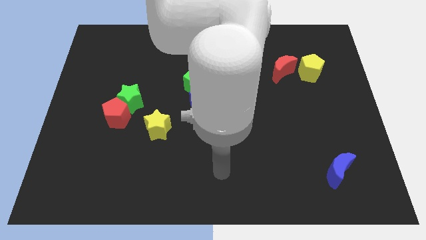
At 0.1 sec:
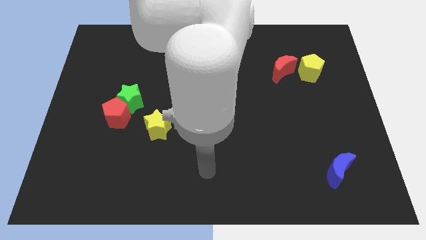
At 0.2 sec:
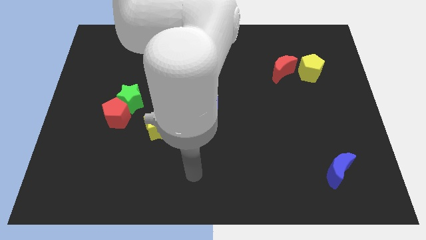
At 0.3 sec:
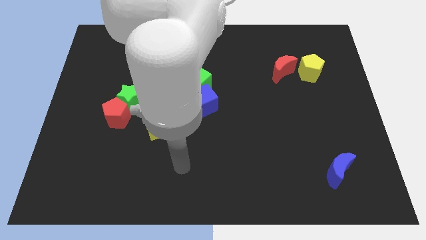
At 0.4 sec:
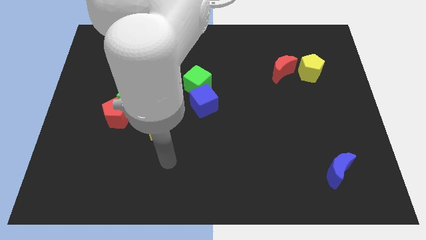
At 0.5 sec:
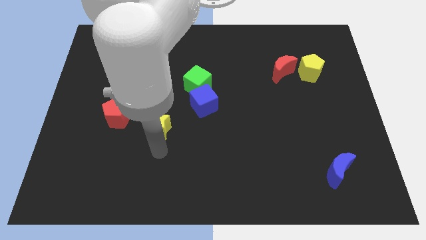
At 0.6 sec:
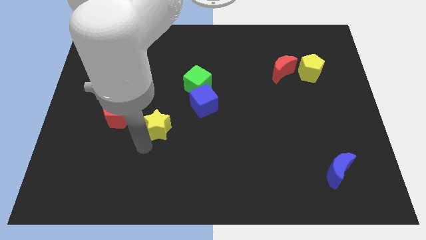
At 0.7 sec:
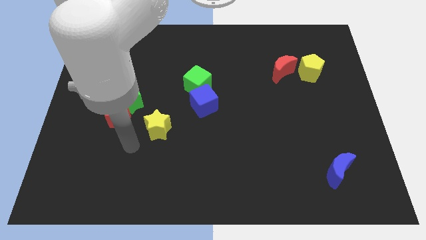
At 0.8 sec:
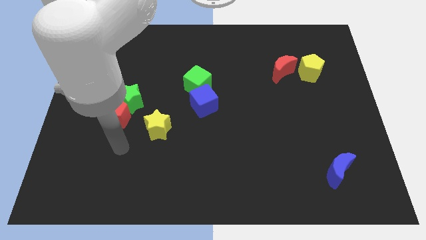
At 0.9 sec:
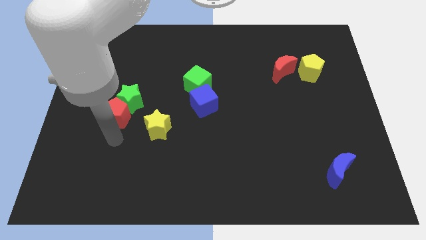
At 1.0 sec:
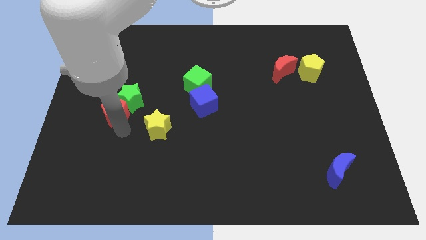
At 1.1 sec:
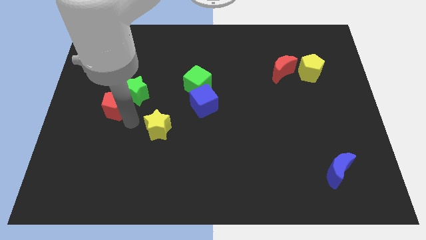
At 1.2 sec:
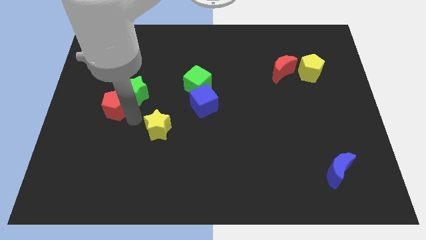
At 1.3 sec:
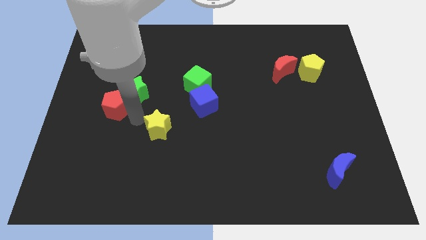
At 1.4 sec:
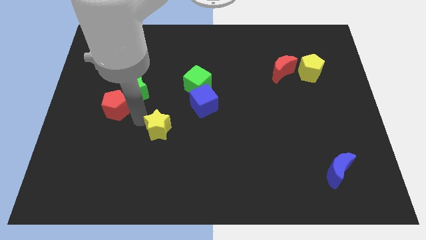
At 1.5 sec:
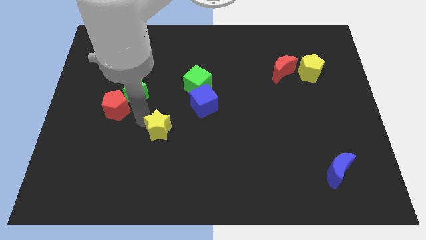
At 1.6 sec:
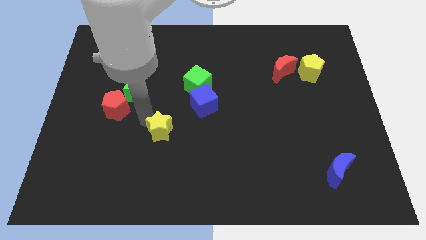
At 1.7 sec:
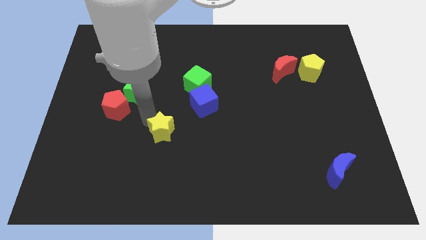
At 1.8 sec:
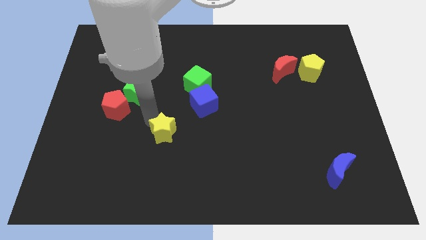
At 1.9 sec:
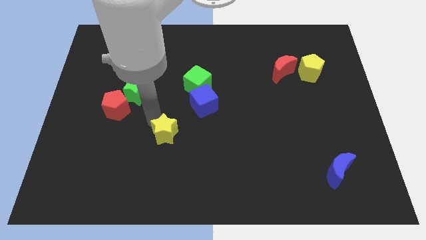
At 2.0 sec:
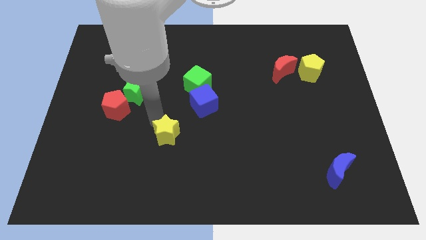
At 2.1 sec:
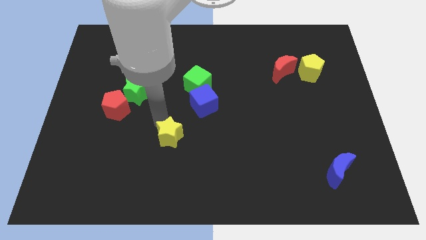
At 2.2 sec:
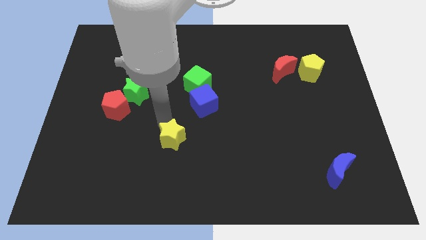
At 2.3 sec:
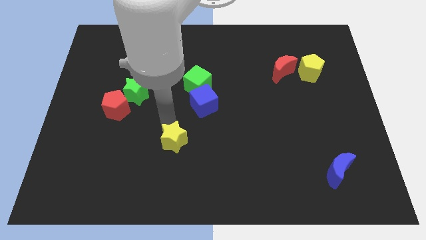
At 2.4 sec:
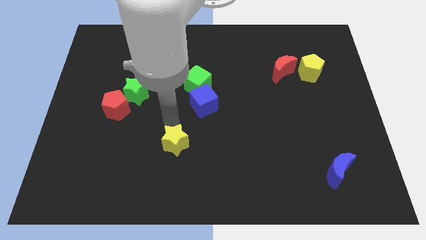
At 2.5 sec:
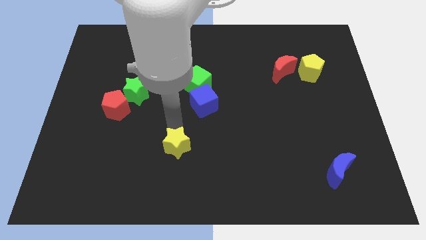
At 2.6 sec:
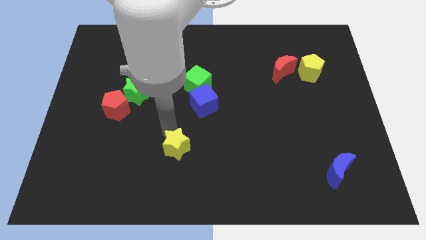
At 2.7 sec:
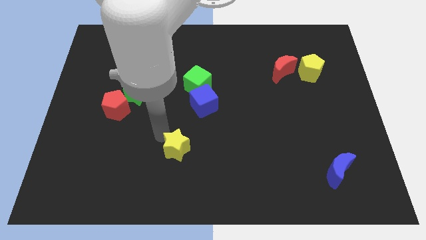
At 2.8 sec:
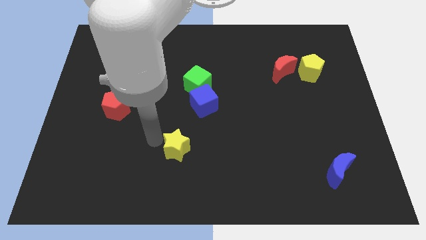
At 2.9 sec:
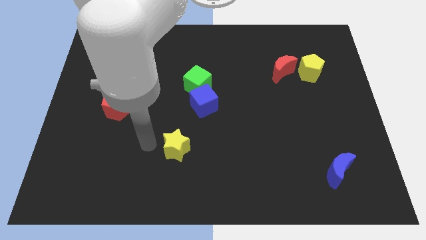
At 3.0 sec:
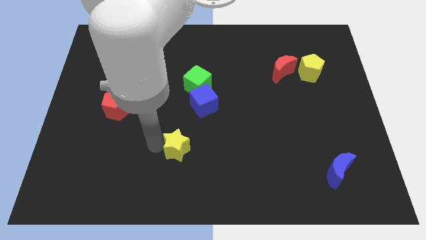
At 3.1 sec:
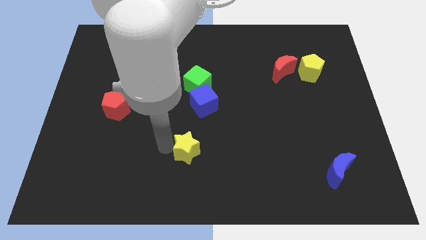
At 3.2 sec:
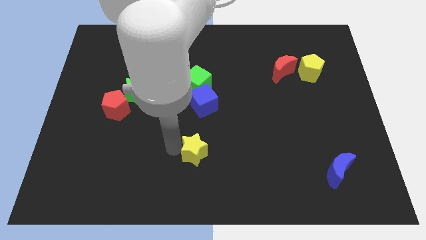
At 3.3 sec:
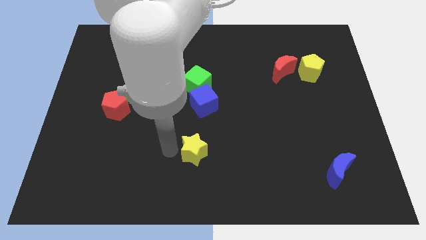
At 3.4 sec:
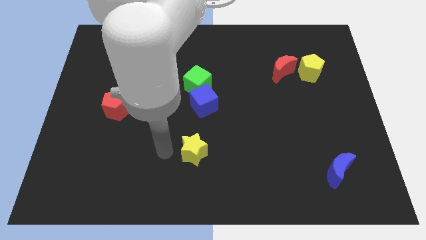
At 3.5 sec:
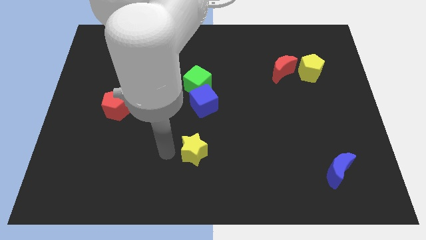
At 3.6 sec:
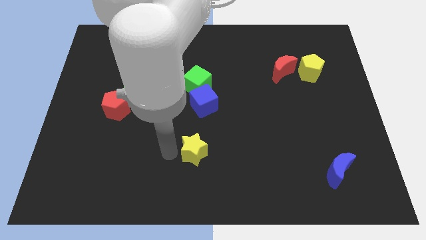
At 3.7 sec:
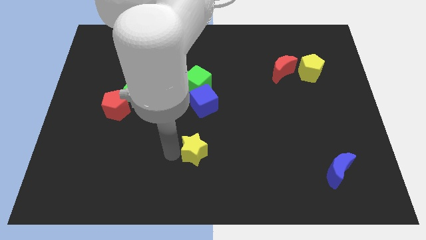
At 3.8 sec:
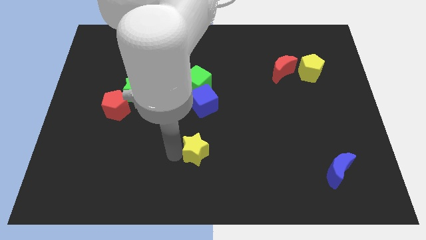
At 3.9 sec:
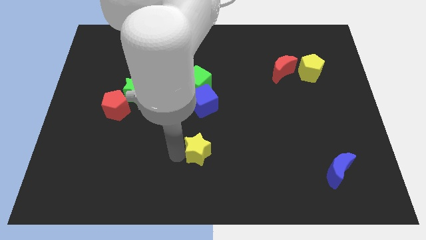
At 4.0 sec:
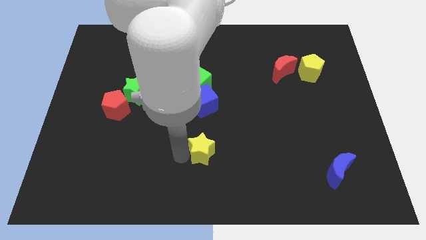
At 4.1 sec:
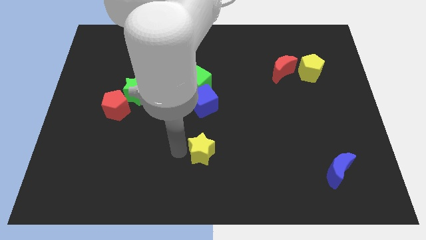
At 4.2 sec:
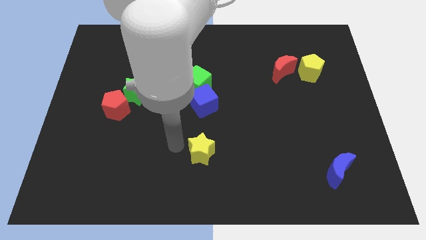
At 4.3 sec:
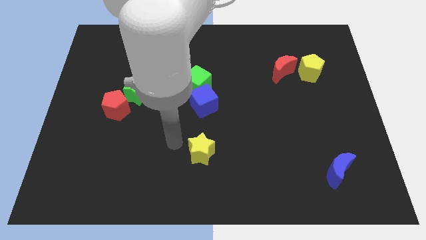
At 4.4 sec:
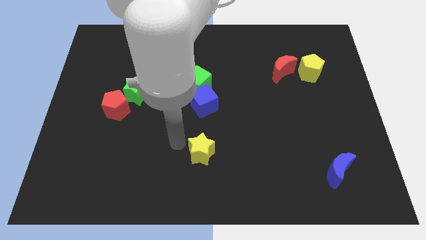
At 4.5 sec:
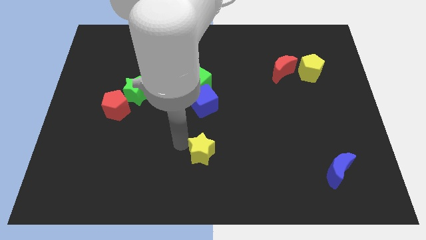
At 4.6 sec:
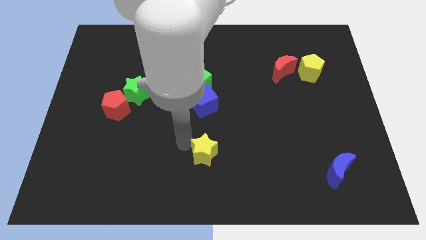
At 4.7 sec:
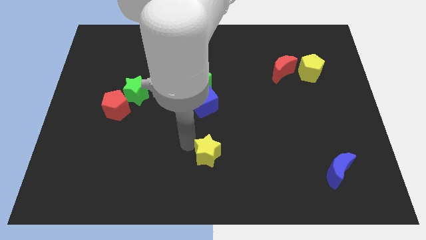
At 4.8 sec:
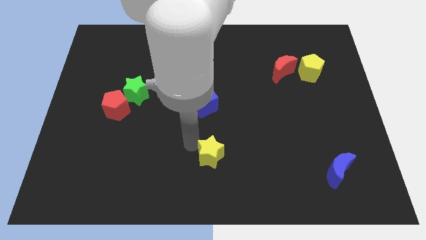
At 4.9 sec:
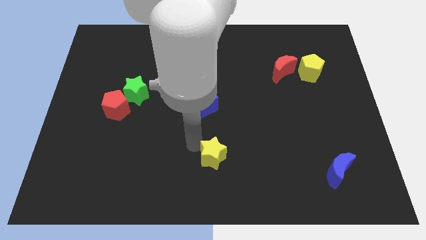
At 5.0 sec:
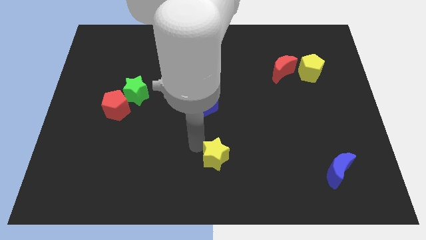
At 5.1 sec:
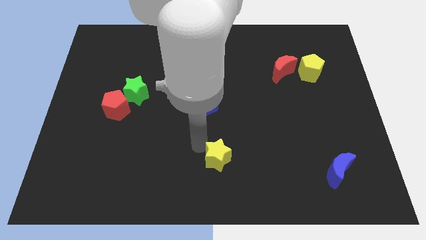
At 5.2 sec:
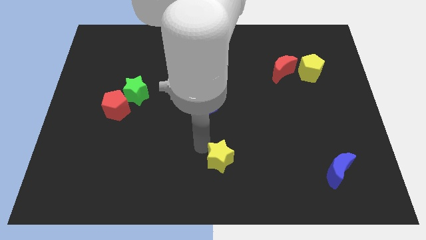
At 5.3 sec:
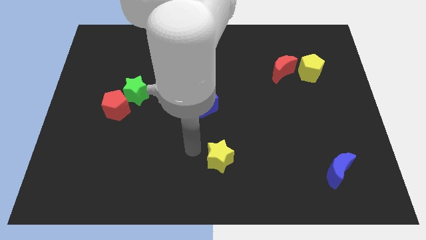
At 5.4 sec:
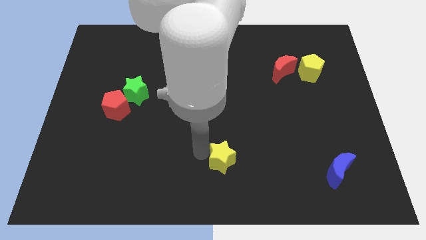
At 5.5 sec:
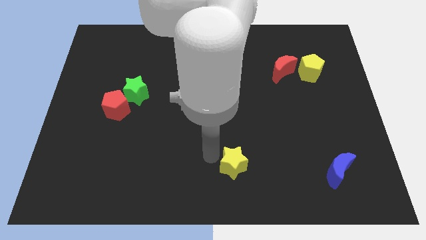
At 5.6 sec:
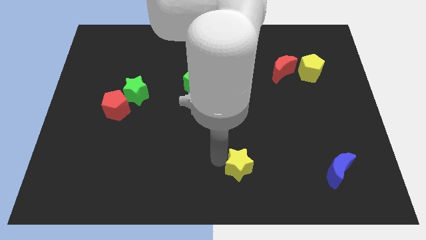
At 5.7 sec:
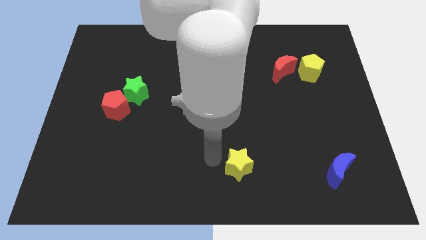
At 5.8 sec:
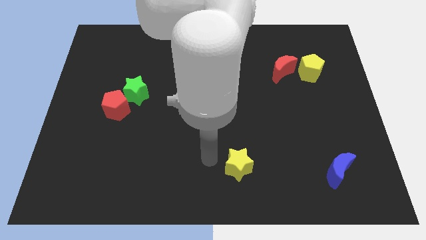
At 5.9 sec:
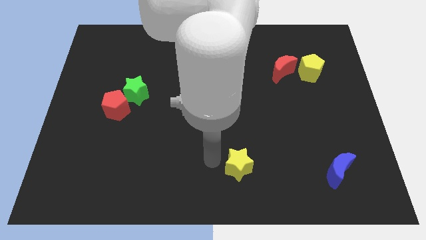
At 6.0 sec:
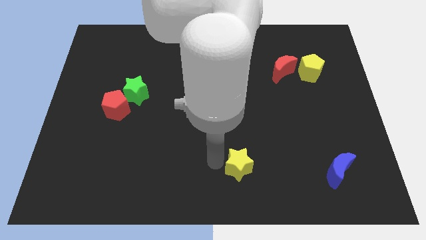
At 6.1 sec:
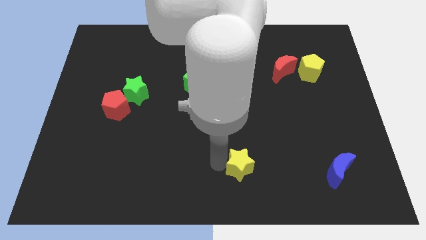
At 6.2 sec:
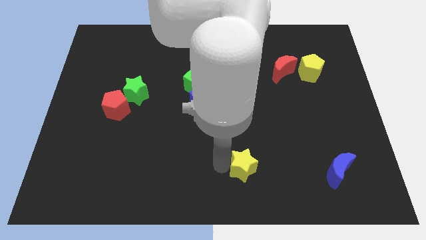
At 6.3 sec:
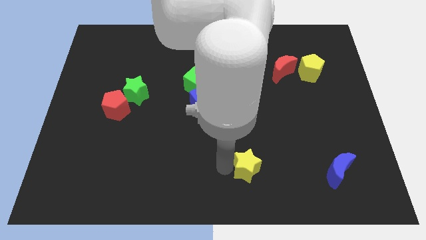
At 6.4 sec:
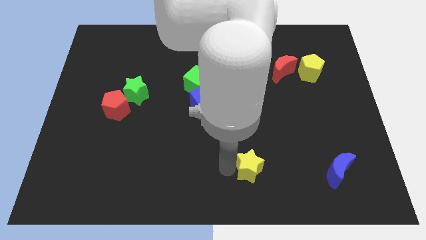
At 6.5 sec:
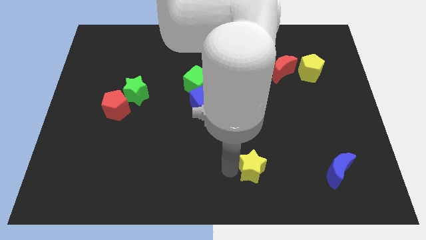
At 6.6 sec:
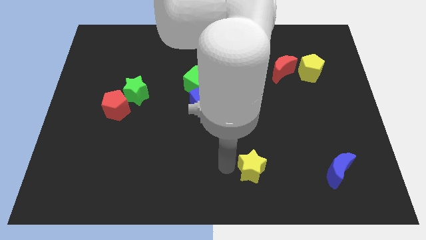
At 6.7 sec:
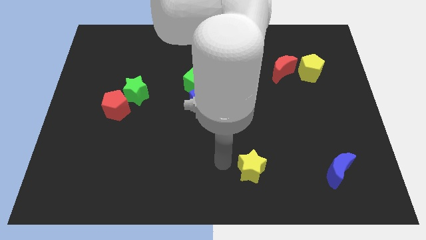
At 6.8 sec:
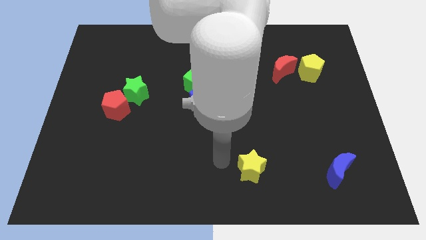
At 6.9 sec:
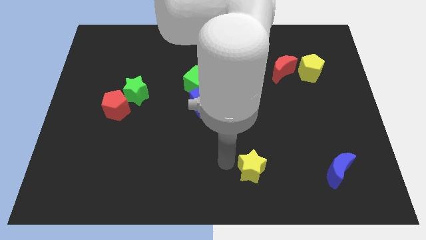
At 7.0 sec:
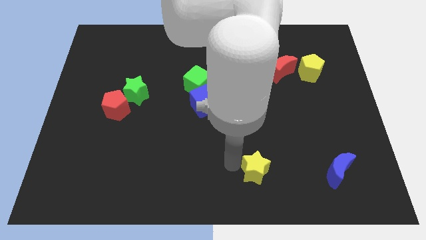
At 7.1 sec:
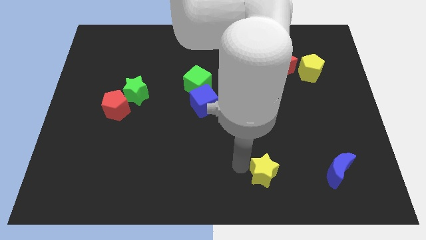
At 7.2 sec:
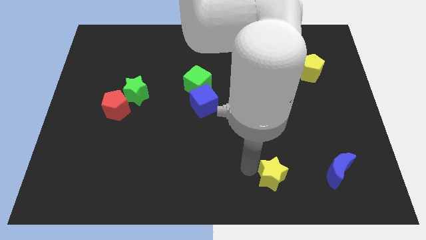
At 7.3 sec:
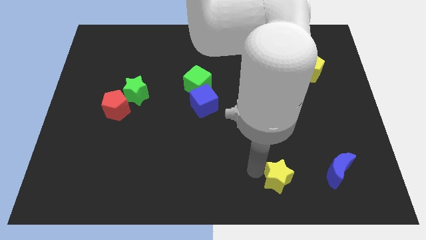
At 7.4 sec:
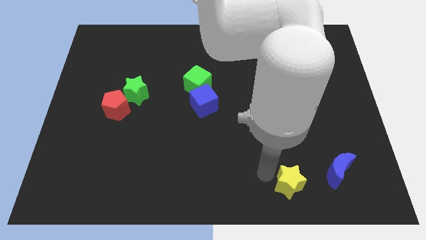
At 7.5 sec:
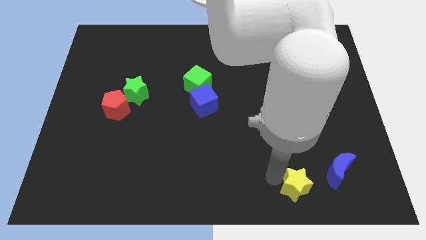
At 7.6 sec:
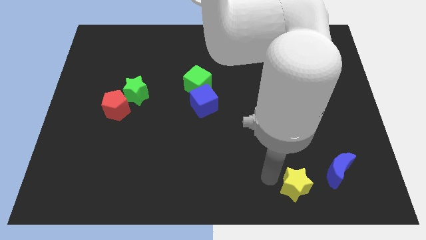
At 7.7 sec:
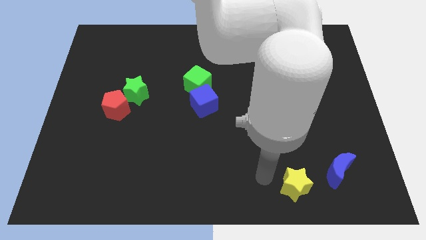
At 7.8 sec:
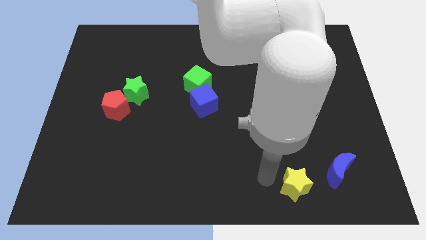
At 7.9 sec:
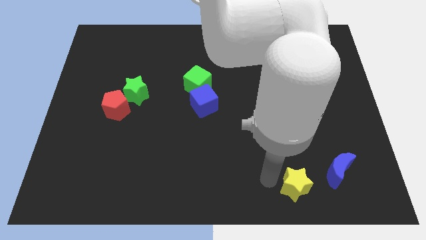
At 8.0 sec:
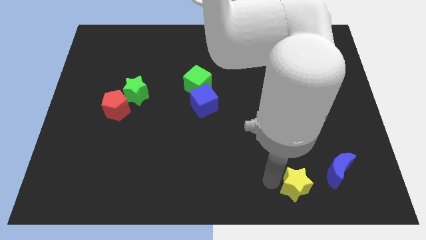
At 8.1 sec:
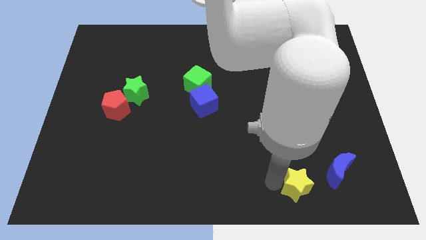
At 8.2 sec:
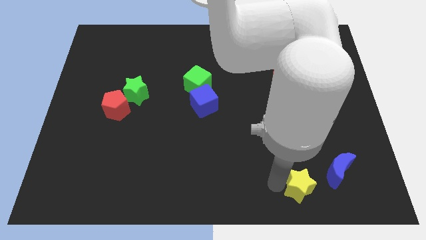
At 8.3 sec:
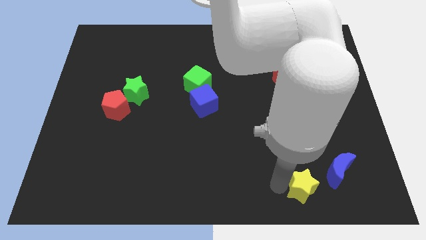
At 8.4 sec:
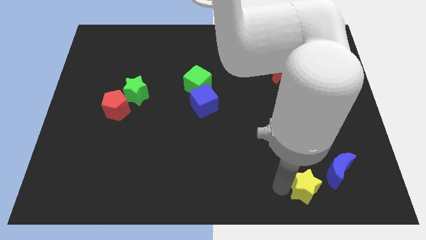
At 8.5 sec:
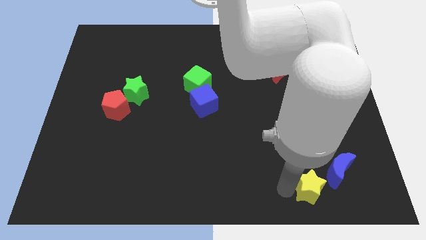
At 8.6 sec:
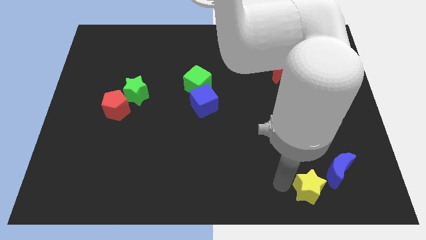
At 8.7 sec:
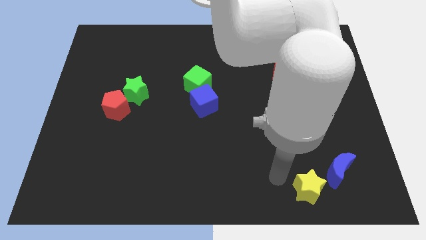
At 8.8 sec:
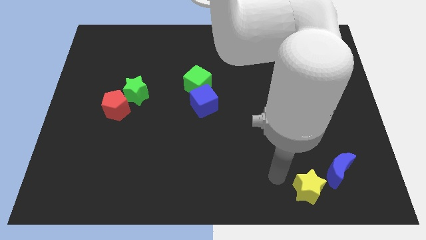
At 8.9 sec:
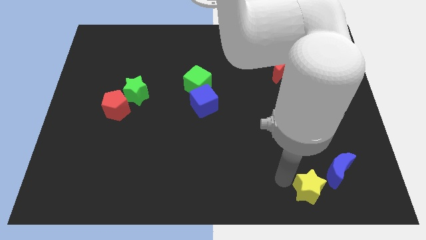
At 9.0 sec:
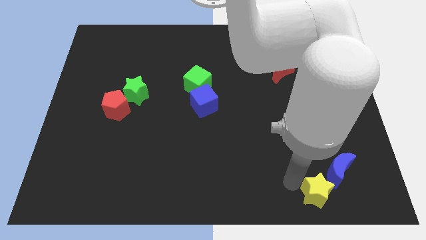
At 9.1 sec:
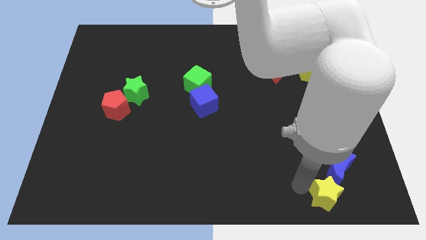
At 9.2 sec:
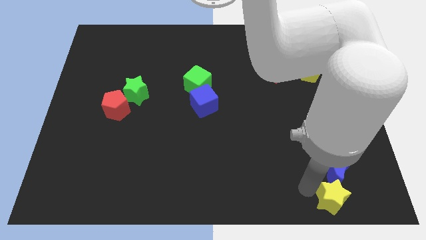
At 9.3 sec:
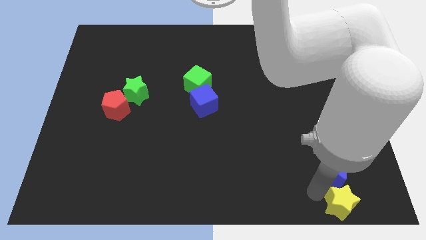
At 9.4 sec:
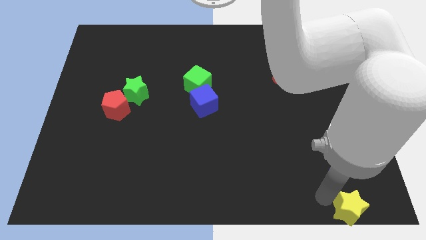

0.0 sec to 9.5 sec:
put the yellow star to the bottom right
